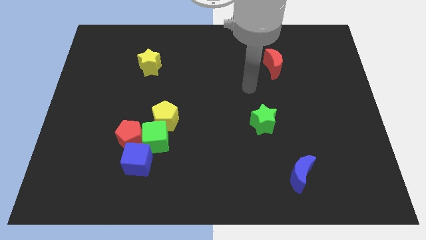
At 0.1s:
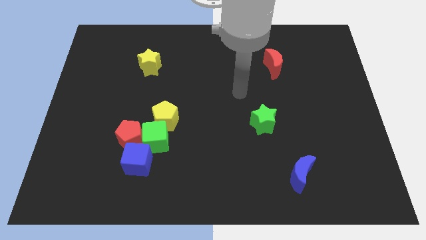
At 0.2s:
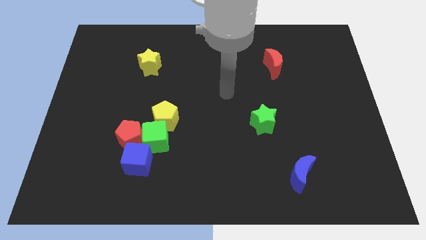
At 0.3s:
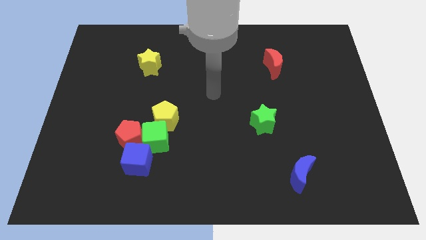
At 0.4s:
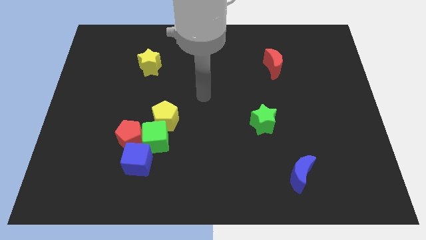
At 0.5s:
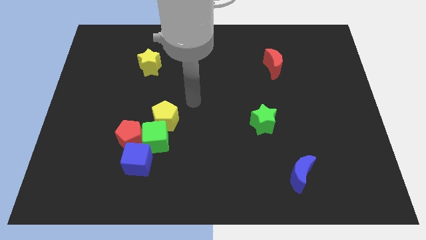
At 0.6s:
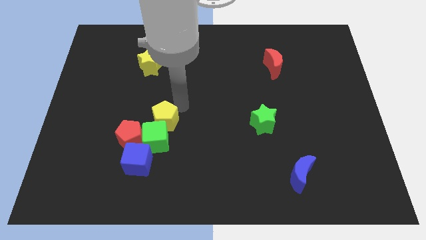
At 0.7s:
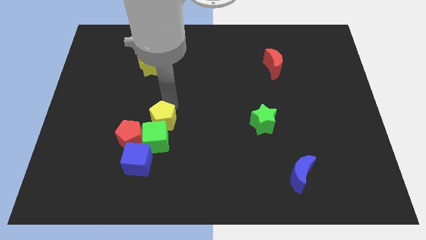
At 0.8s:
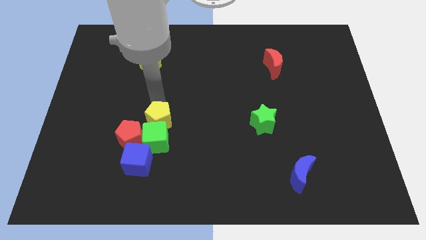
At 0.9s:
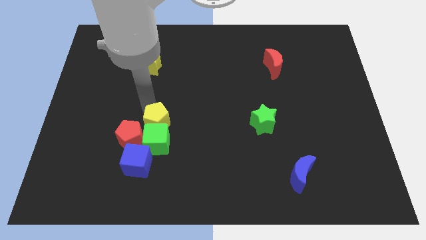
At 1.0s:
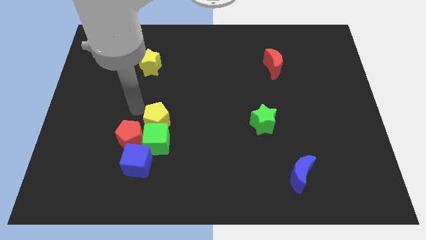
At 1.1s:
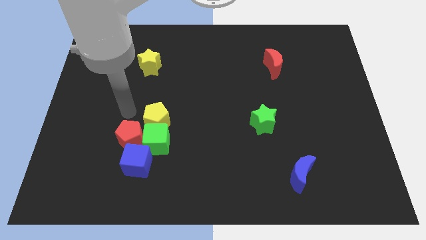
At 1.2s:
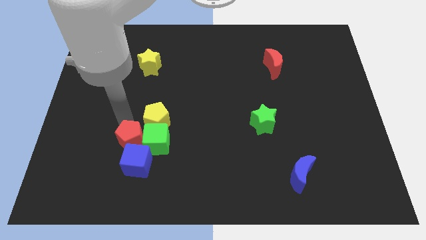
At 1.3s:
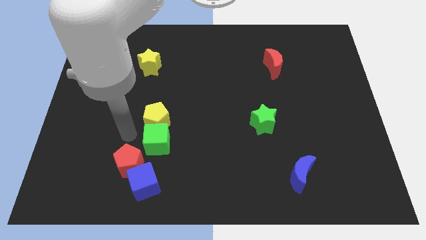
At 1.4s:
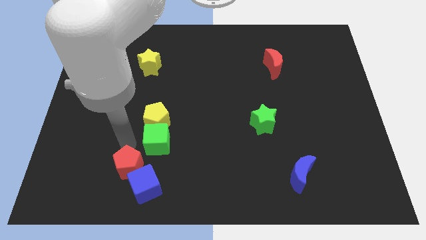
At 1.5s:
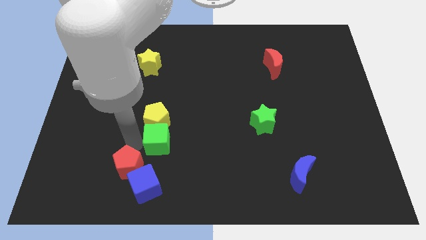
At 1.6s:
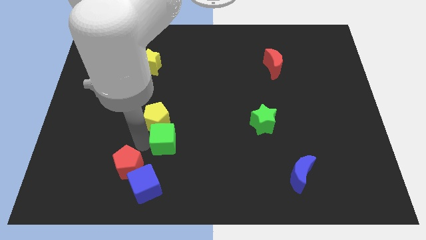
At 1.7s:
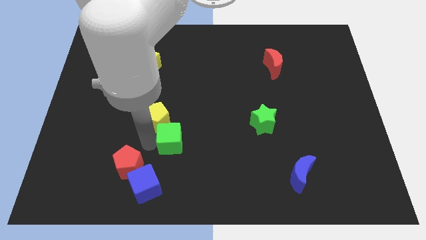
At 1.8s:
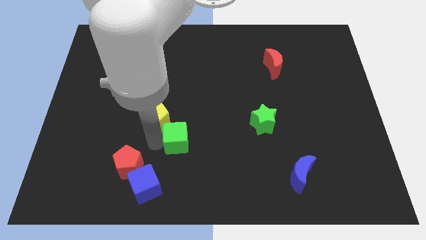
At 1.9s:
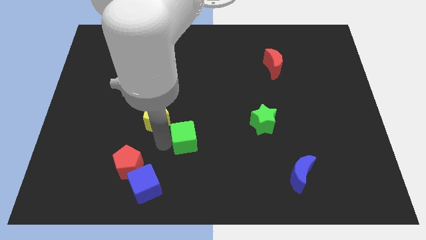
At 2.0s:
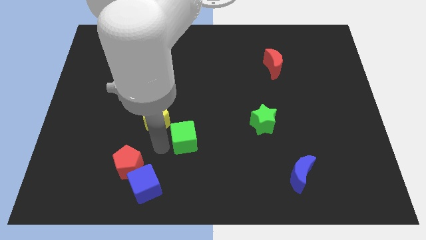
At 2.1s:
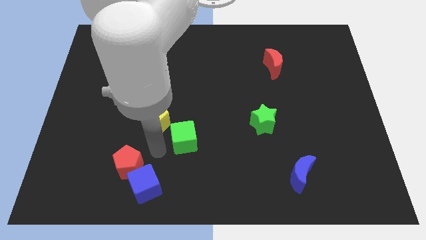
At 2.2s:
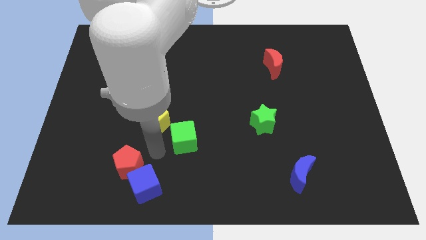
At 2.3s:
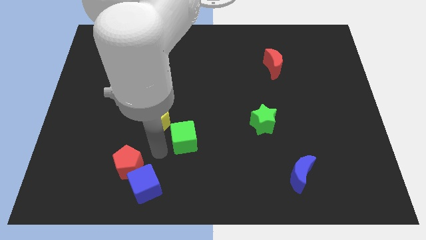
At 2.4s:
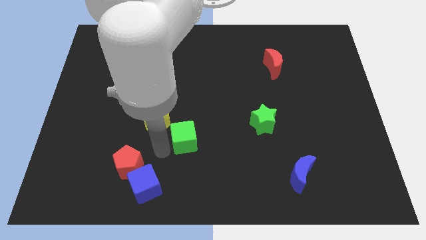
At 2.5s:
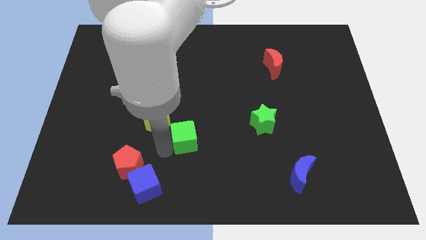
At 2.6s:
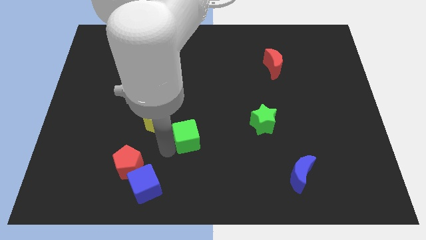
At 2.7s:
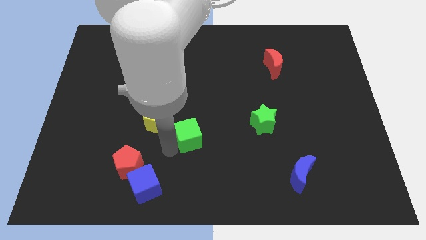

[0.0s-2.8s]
separate the green cube from the red pentagon, yellow pentagon, and blue cube

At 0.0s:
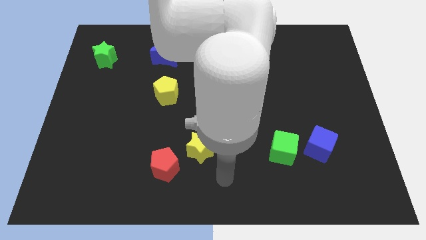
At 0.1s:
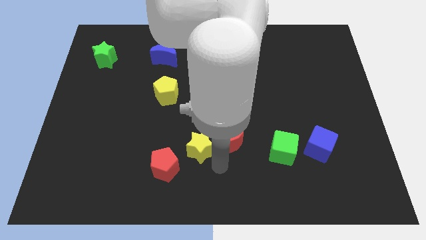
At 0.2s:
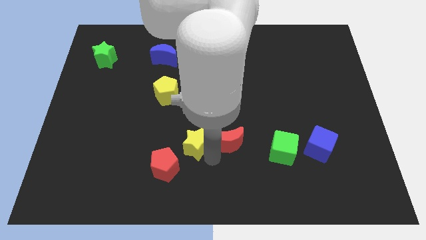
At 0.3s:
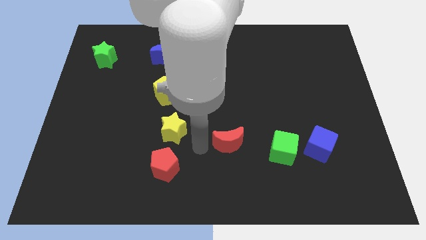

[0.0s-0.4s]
move the red moon away from the yellow star

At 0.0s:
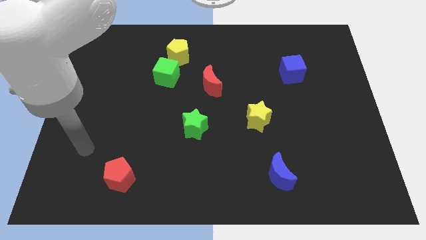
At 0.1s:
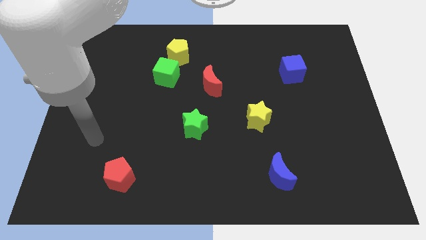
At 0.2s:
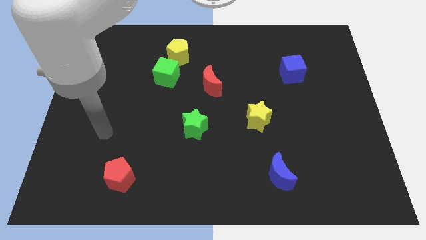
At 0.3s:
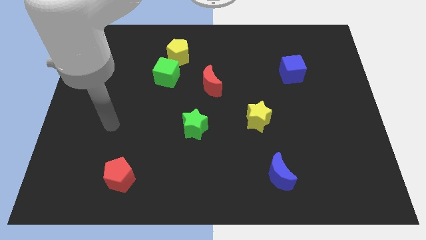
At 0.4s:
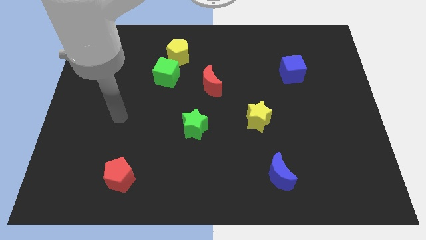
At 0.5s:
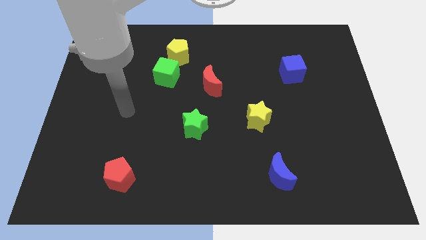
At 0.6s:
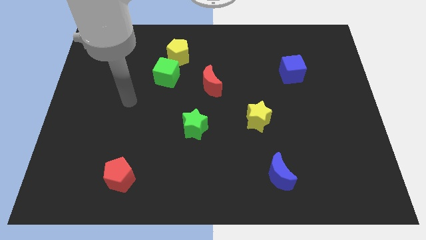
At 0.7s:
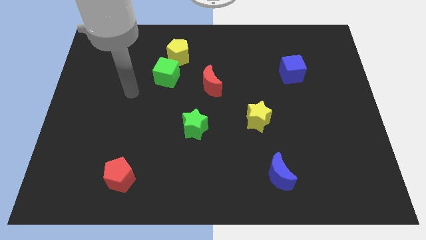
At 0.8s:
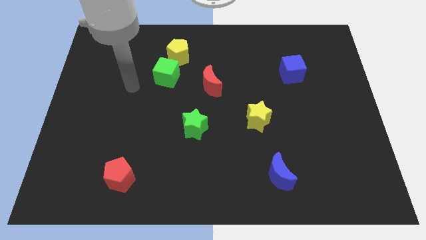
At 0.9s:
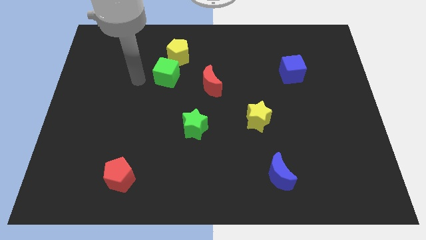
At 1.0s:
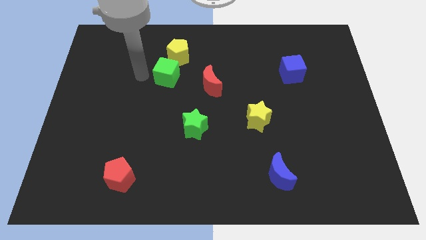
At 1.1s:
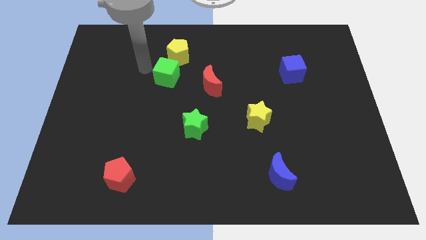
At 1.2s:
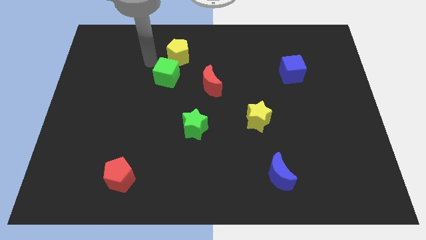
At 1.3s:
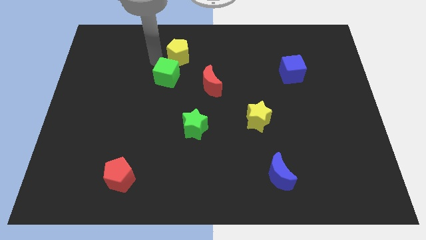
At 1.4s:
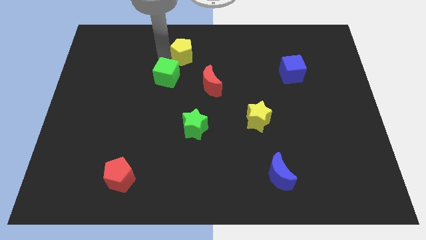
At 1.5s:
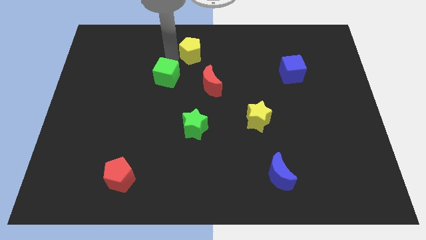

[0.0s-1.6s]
separate the green cube from the yellow pentagon

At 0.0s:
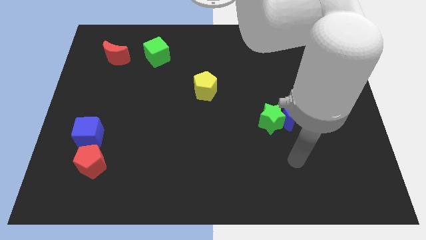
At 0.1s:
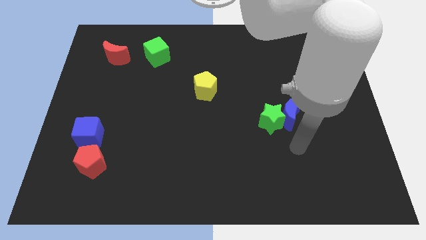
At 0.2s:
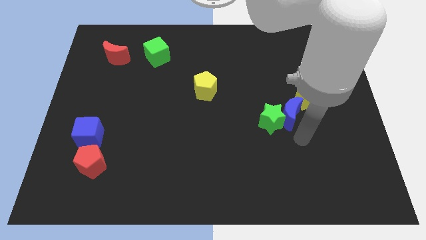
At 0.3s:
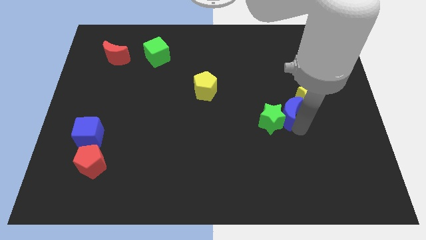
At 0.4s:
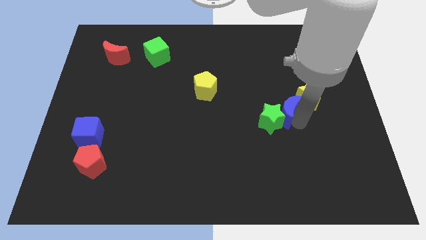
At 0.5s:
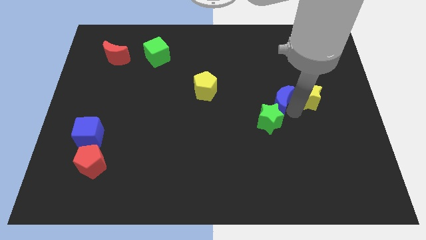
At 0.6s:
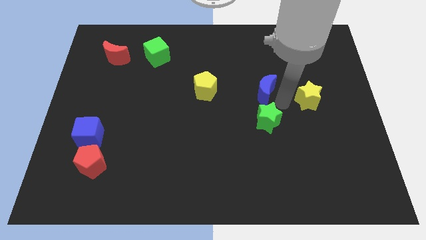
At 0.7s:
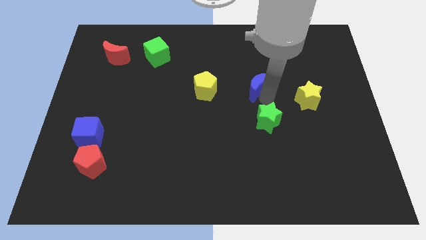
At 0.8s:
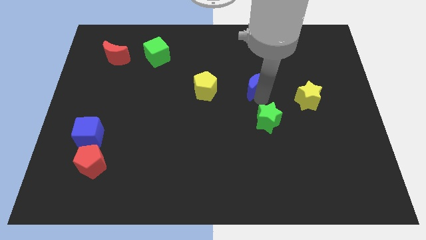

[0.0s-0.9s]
separate the green star from the blue moon

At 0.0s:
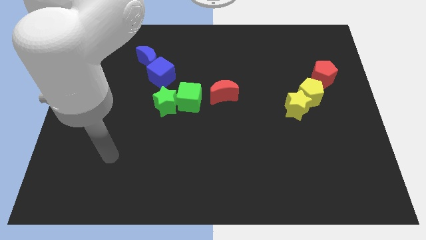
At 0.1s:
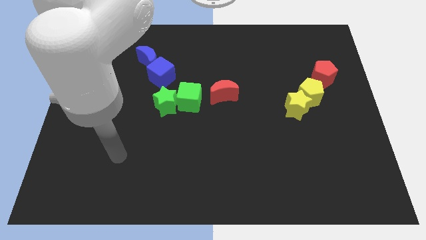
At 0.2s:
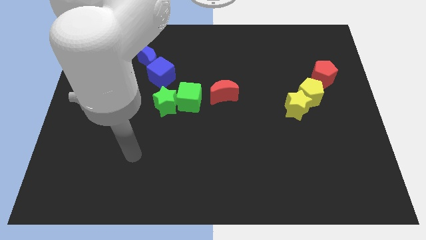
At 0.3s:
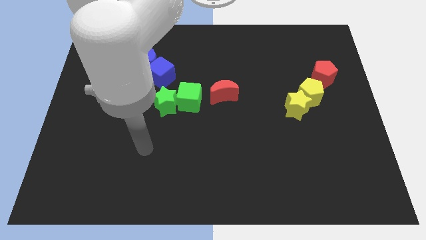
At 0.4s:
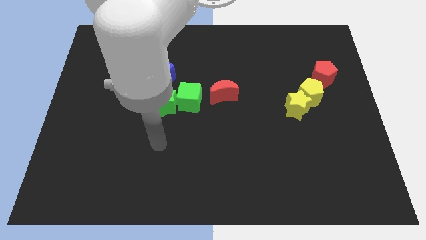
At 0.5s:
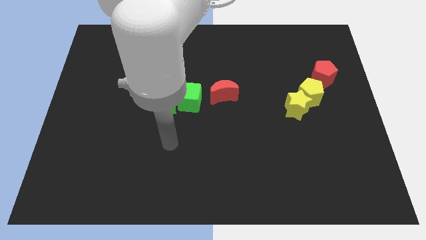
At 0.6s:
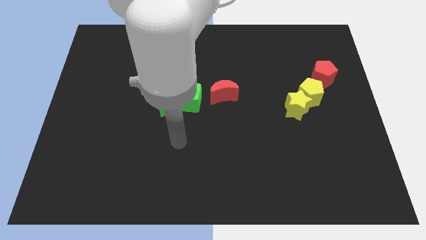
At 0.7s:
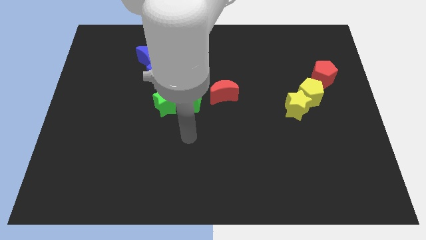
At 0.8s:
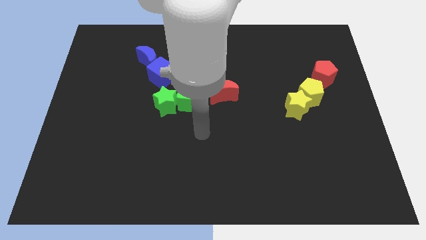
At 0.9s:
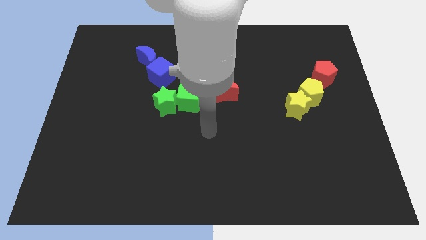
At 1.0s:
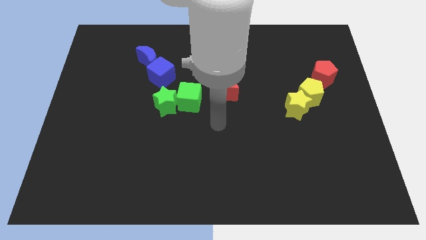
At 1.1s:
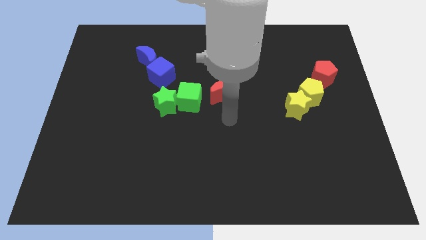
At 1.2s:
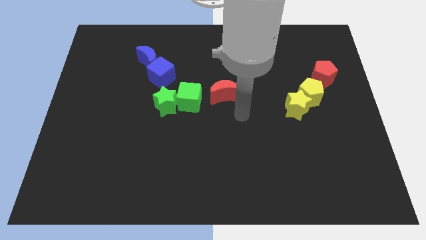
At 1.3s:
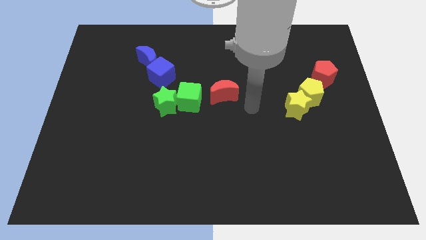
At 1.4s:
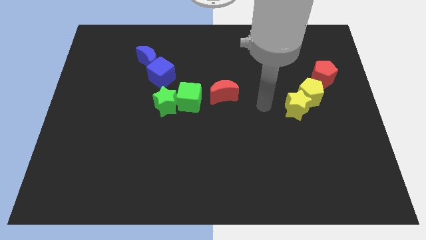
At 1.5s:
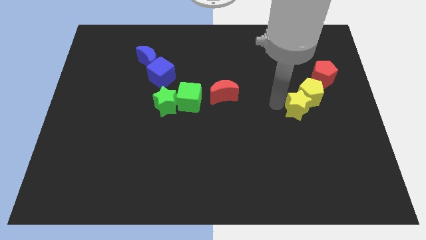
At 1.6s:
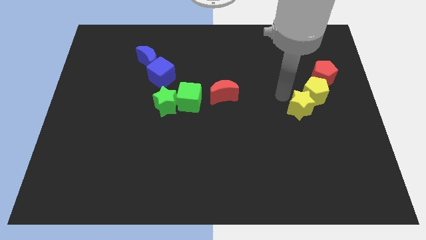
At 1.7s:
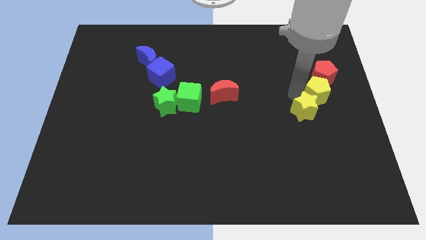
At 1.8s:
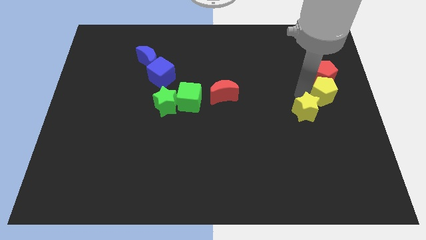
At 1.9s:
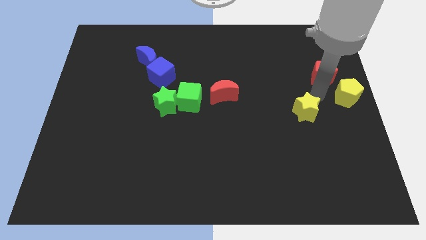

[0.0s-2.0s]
move the yellow star away from the yellow pentagon

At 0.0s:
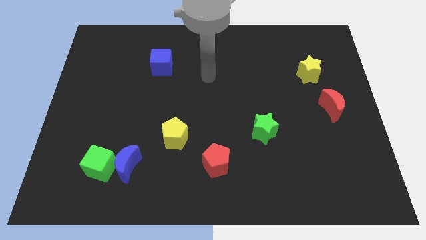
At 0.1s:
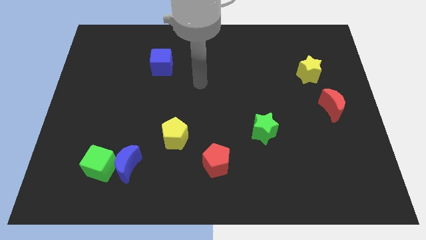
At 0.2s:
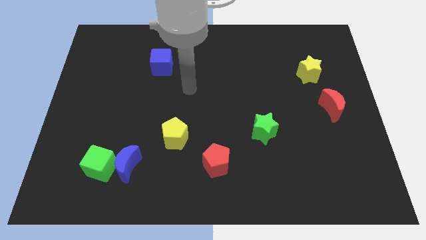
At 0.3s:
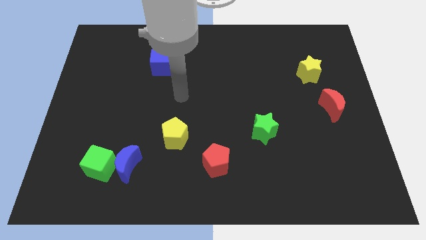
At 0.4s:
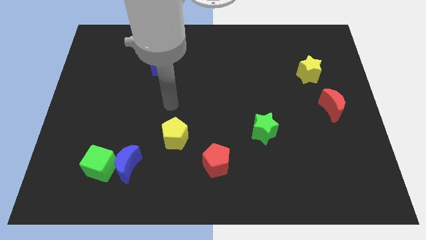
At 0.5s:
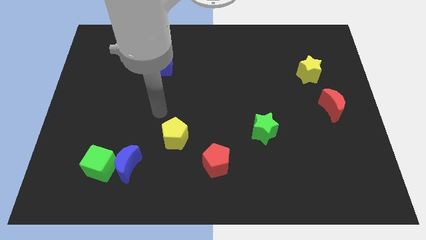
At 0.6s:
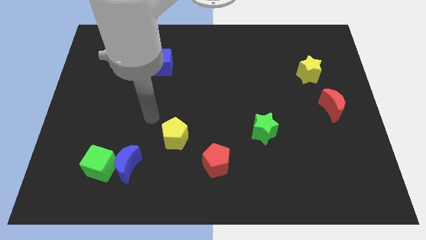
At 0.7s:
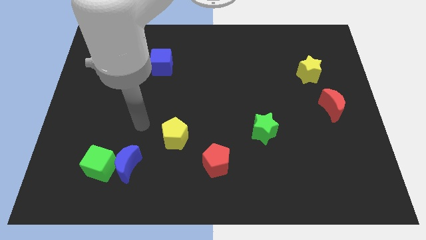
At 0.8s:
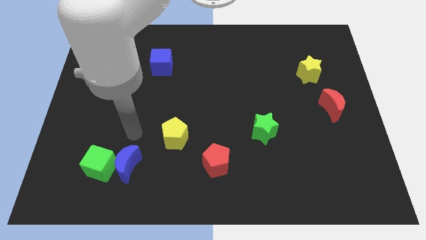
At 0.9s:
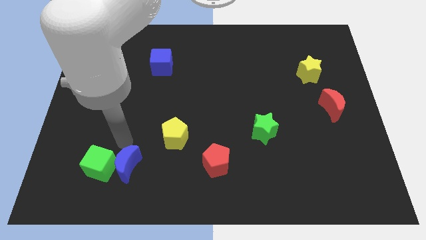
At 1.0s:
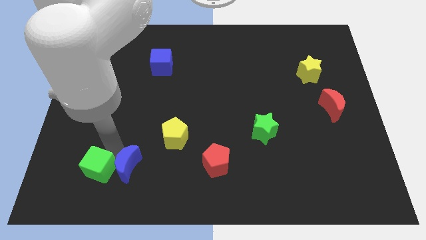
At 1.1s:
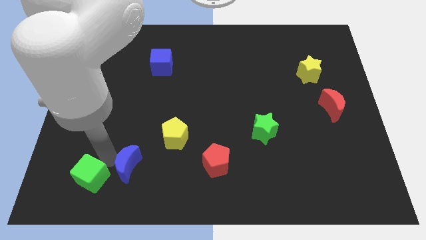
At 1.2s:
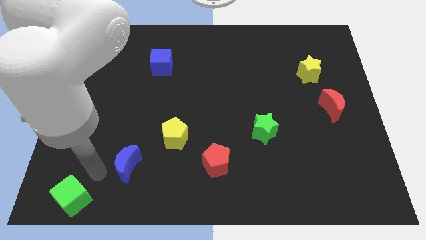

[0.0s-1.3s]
move the blue moon away from the green cube

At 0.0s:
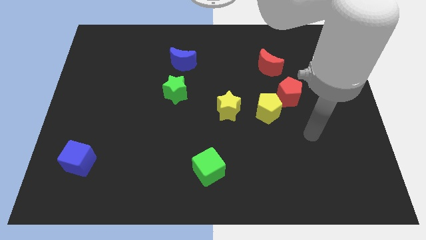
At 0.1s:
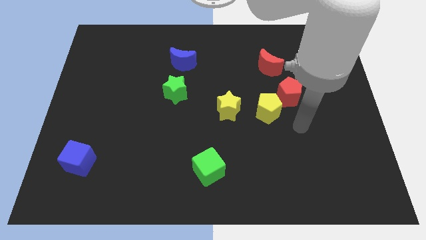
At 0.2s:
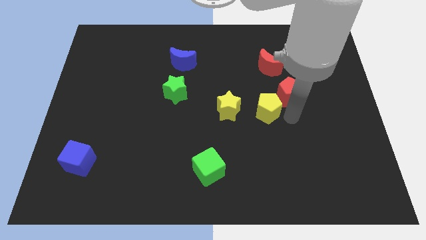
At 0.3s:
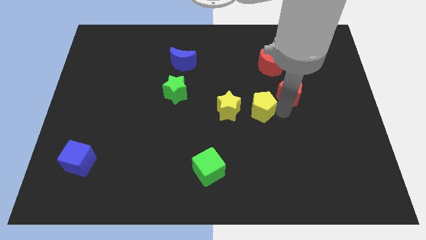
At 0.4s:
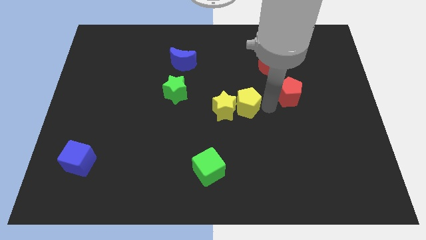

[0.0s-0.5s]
move the red pentagon away from the yellow pentagon
